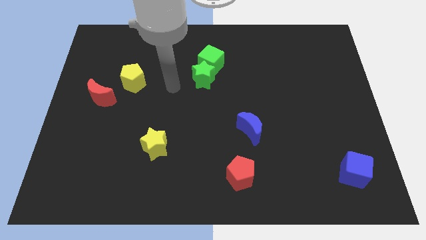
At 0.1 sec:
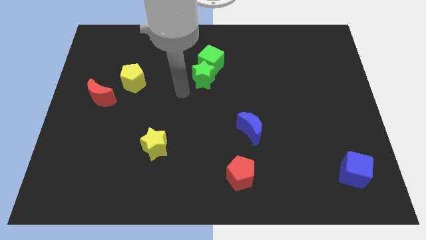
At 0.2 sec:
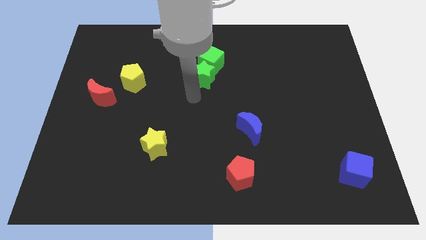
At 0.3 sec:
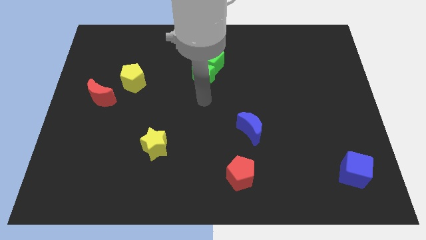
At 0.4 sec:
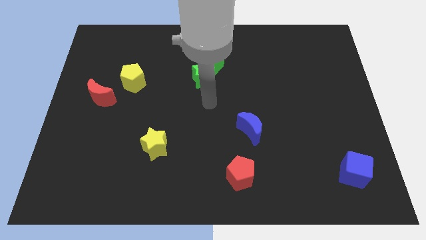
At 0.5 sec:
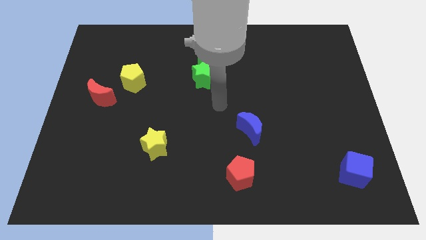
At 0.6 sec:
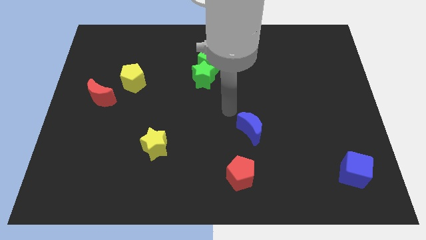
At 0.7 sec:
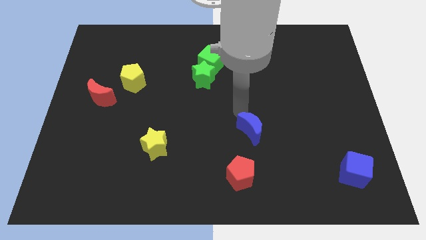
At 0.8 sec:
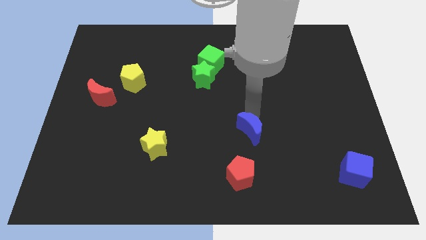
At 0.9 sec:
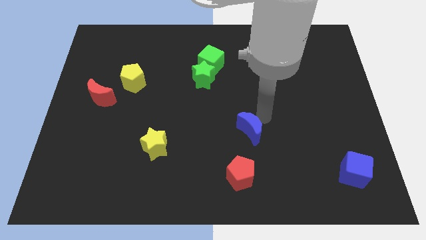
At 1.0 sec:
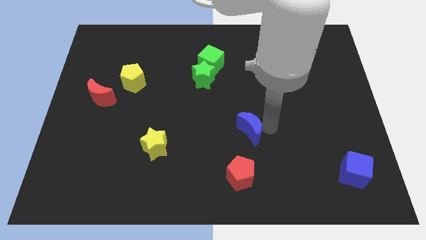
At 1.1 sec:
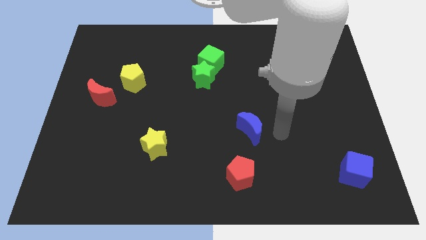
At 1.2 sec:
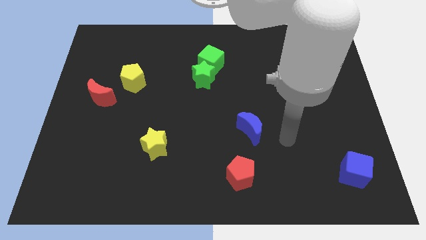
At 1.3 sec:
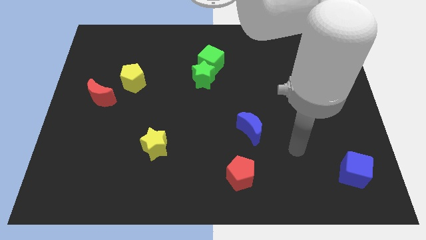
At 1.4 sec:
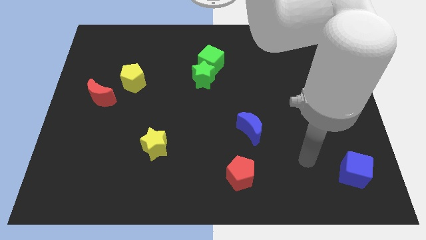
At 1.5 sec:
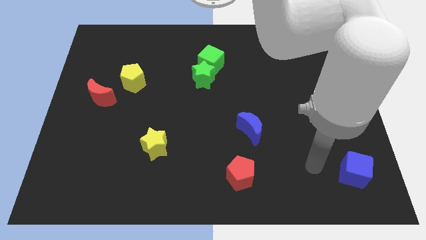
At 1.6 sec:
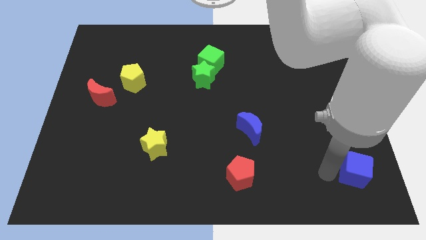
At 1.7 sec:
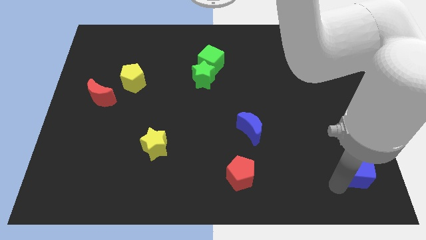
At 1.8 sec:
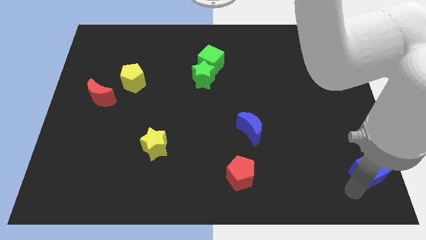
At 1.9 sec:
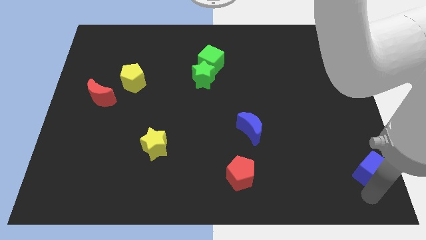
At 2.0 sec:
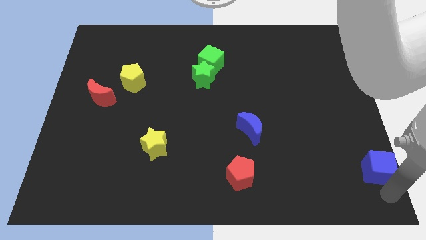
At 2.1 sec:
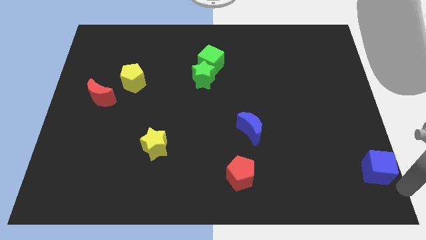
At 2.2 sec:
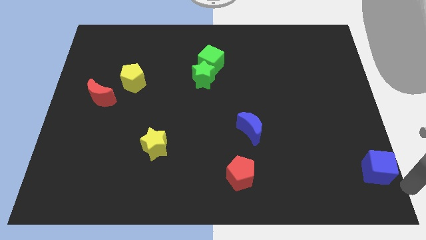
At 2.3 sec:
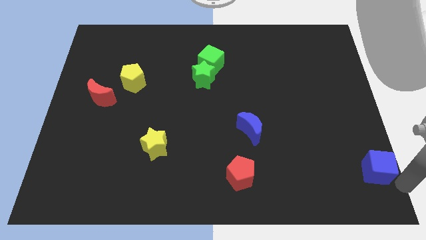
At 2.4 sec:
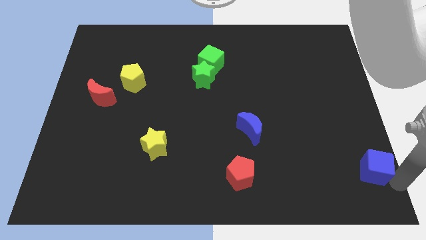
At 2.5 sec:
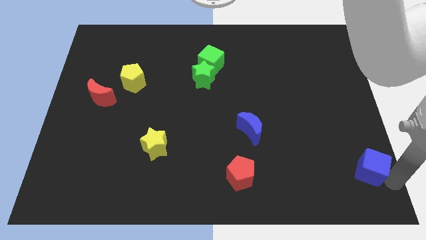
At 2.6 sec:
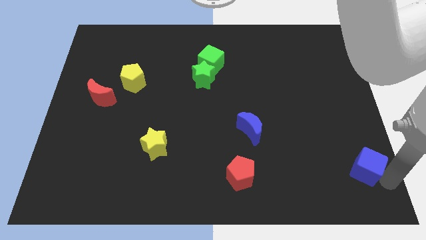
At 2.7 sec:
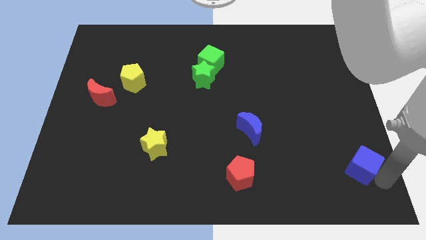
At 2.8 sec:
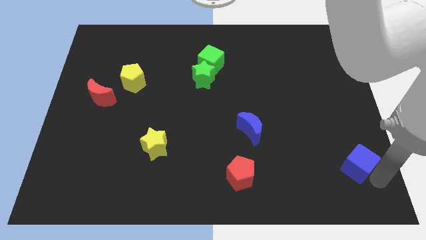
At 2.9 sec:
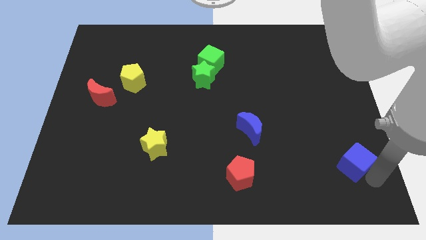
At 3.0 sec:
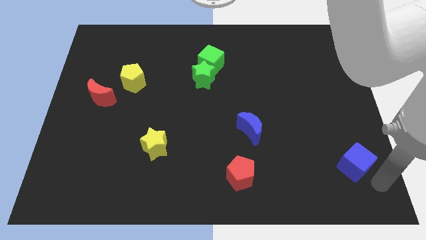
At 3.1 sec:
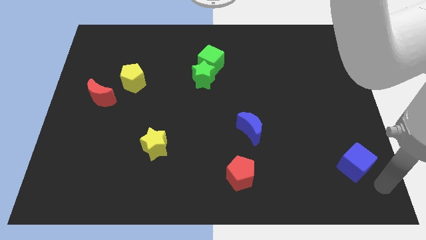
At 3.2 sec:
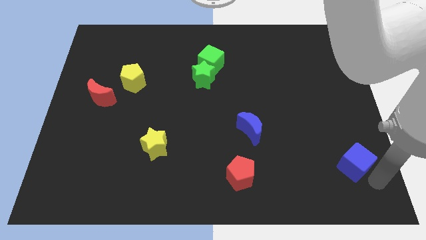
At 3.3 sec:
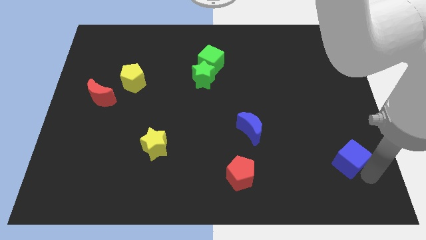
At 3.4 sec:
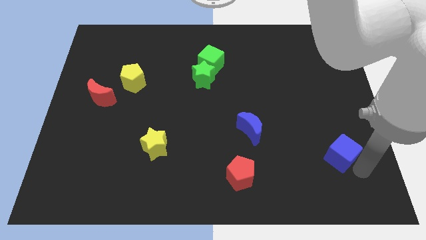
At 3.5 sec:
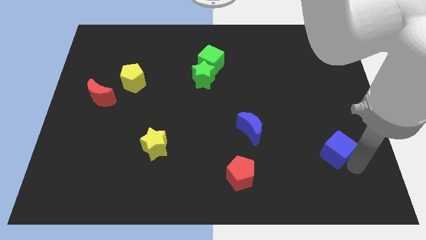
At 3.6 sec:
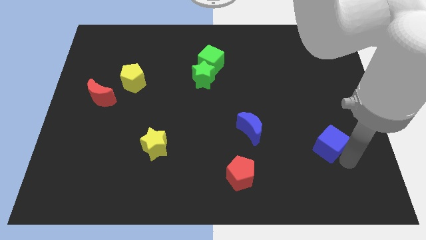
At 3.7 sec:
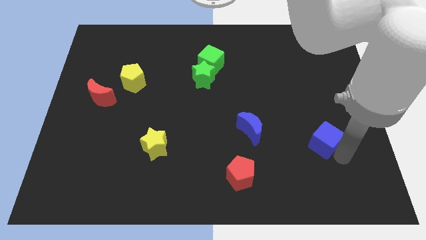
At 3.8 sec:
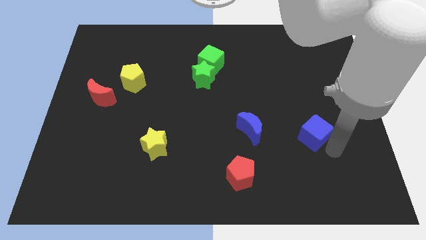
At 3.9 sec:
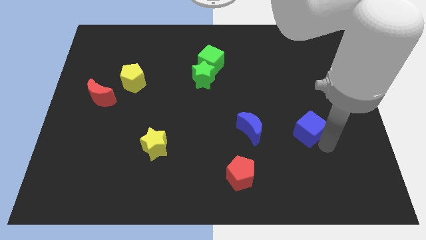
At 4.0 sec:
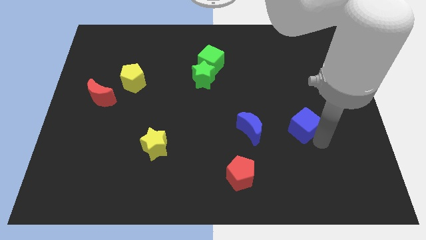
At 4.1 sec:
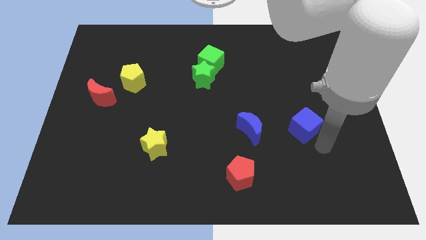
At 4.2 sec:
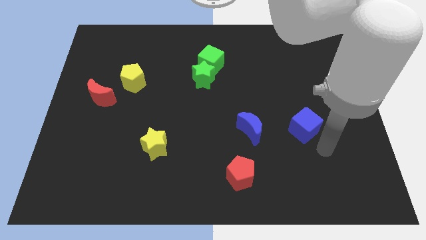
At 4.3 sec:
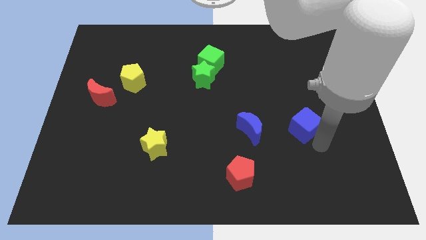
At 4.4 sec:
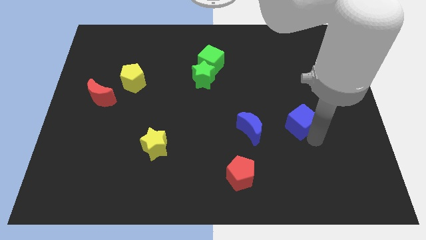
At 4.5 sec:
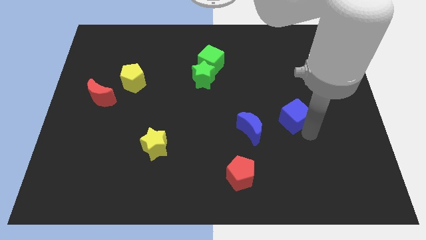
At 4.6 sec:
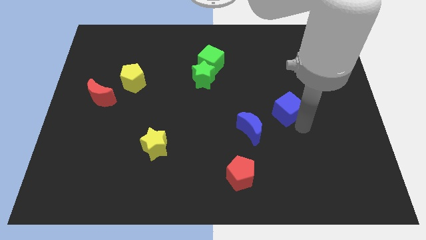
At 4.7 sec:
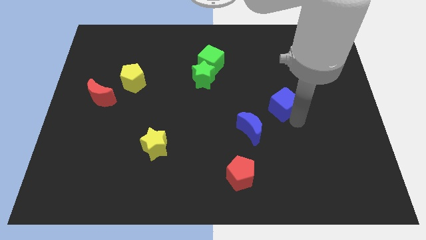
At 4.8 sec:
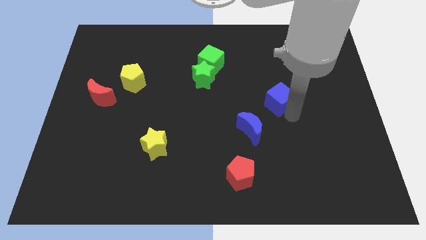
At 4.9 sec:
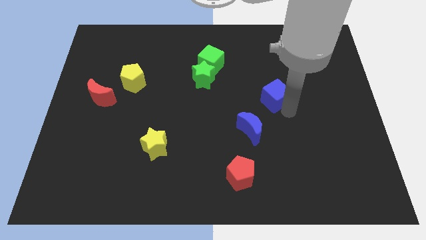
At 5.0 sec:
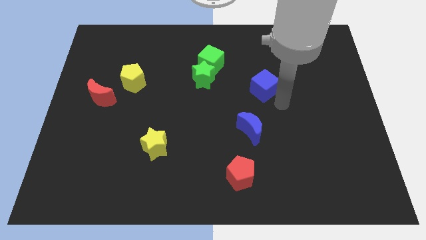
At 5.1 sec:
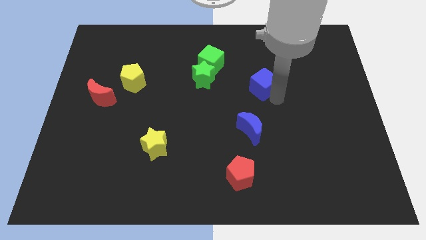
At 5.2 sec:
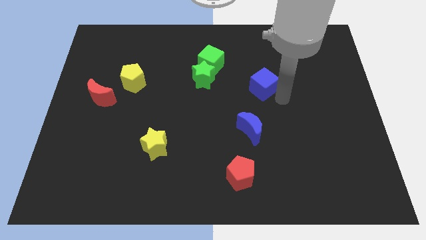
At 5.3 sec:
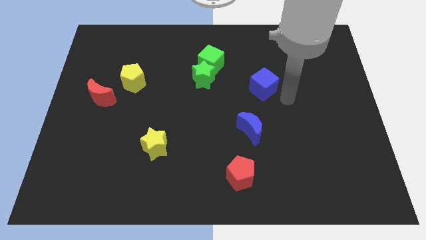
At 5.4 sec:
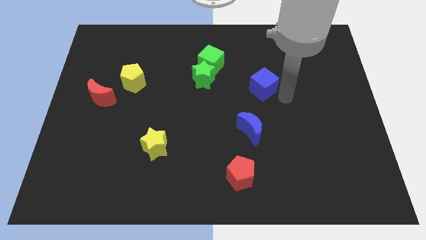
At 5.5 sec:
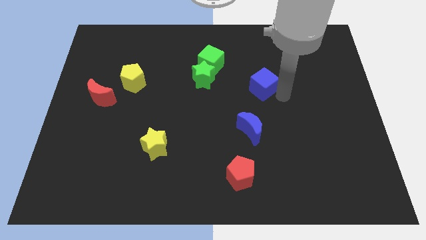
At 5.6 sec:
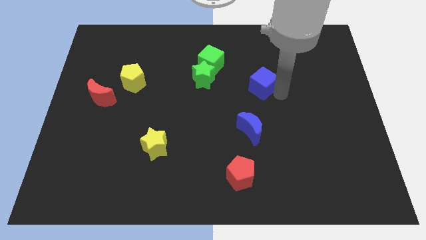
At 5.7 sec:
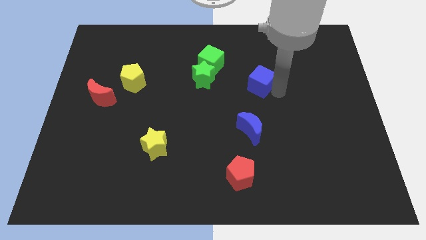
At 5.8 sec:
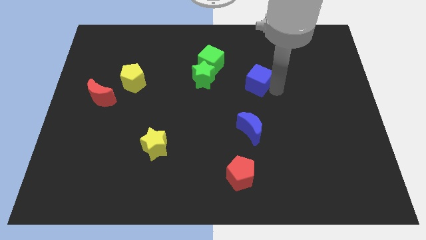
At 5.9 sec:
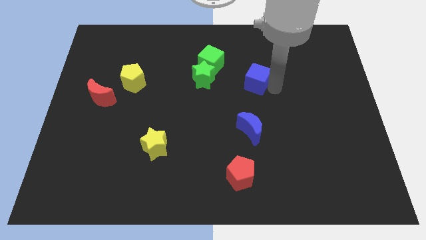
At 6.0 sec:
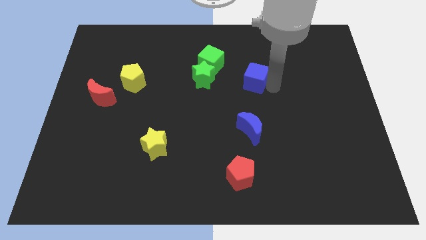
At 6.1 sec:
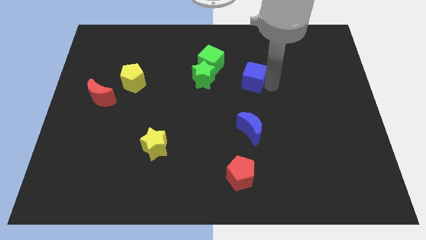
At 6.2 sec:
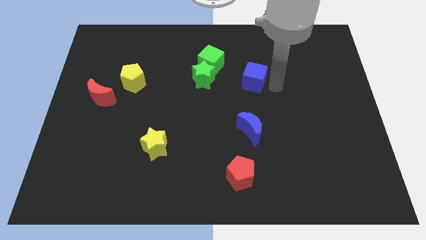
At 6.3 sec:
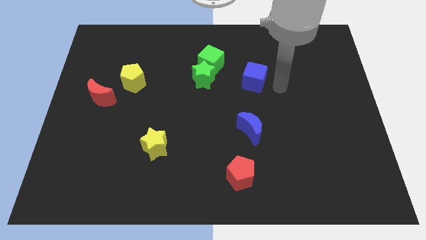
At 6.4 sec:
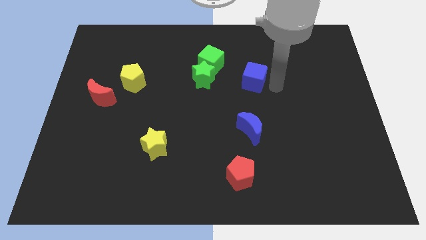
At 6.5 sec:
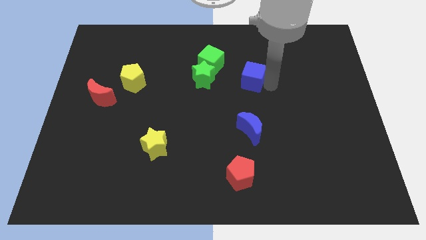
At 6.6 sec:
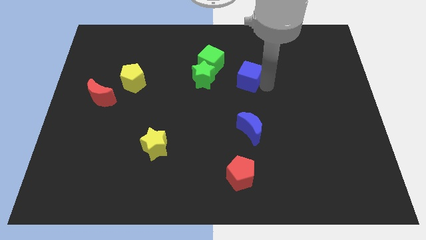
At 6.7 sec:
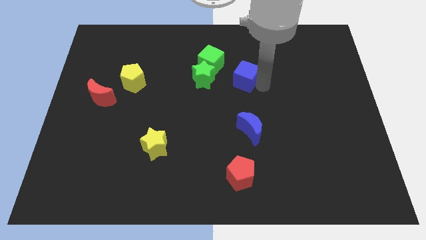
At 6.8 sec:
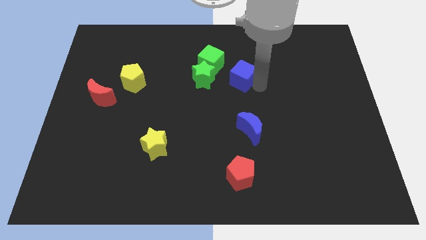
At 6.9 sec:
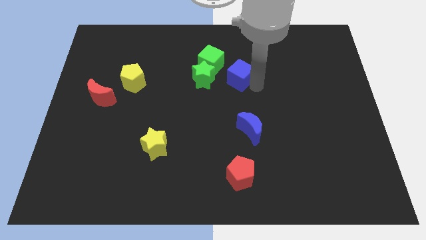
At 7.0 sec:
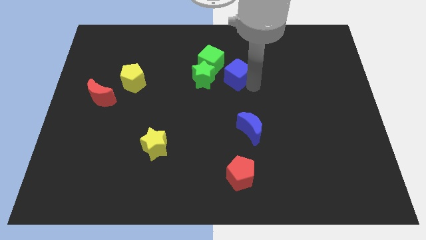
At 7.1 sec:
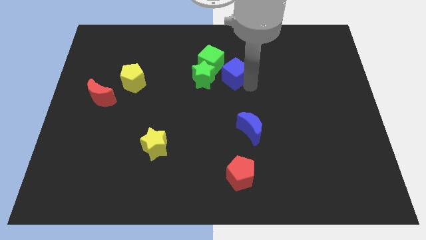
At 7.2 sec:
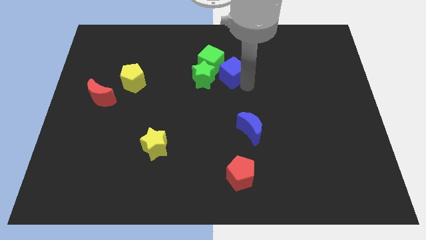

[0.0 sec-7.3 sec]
slide the blue cube to the top right side of the green star

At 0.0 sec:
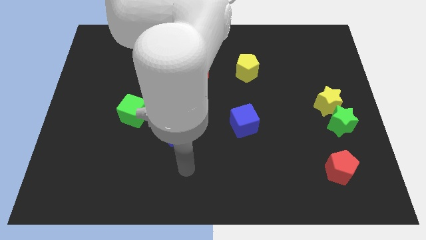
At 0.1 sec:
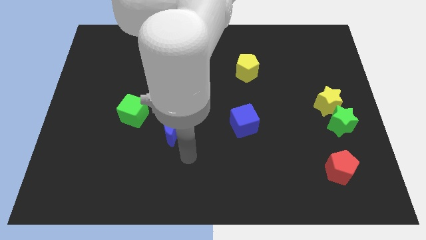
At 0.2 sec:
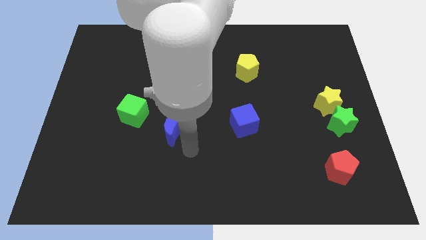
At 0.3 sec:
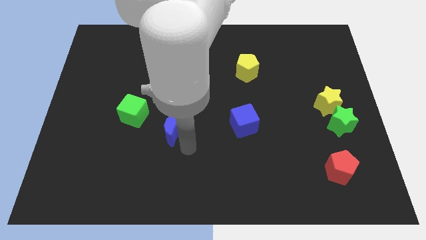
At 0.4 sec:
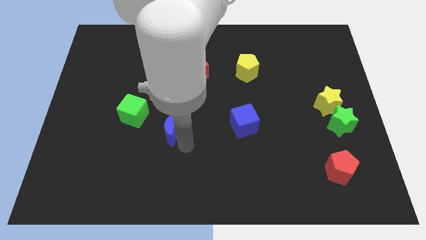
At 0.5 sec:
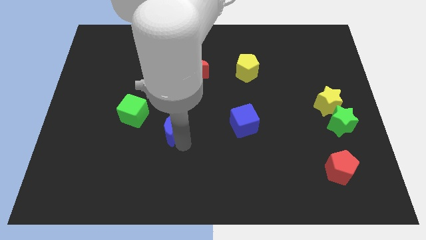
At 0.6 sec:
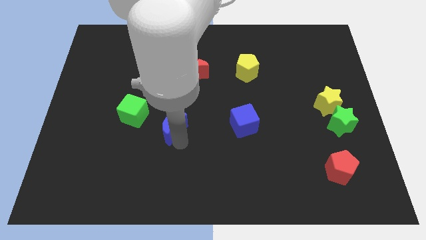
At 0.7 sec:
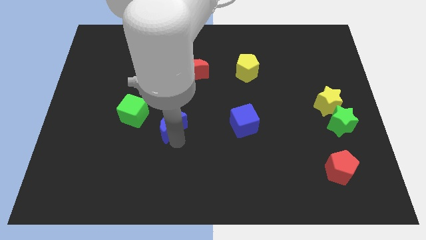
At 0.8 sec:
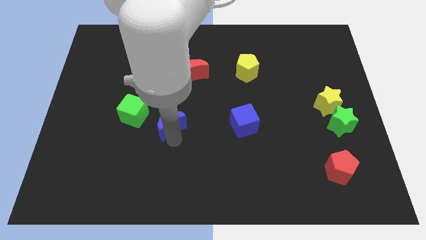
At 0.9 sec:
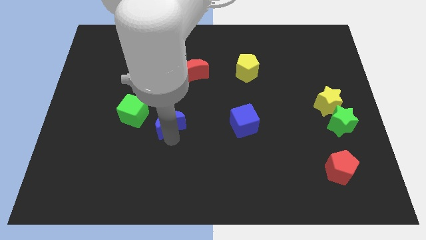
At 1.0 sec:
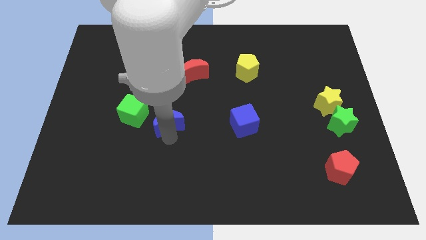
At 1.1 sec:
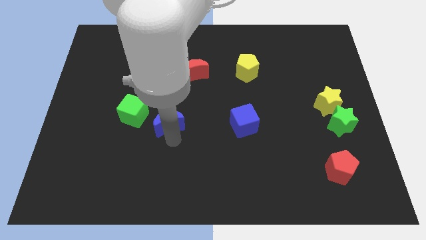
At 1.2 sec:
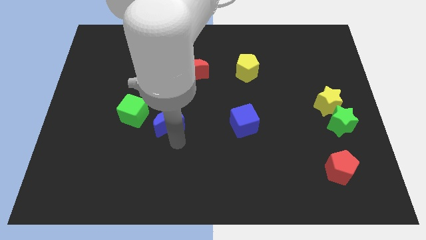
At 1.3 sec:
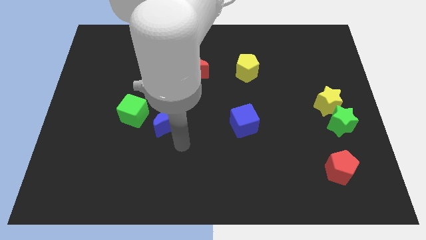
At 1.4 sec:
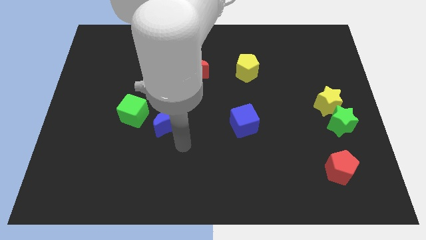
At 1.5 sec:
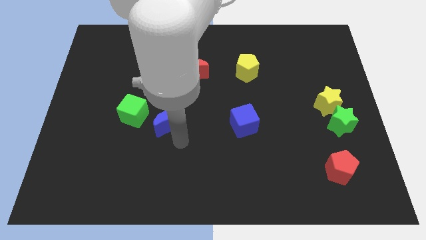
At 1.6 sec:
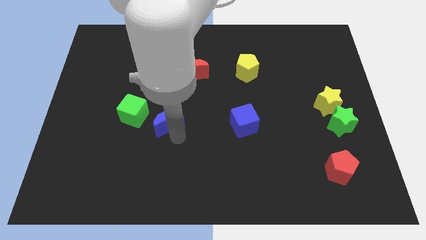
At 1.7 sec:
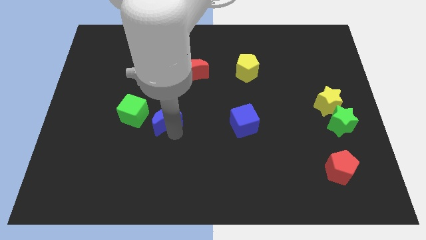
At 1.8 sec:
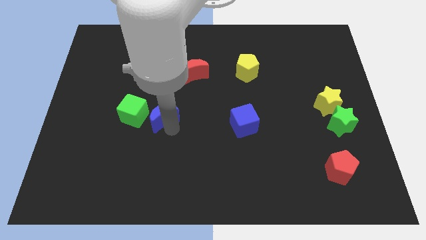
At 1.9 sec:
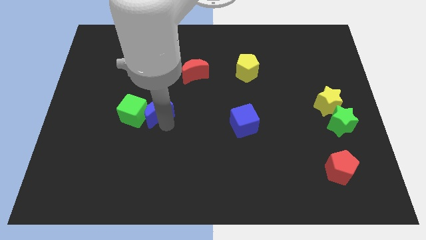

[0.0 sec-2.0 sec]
slide the blue moon diagonally up and to the right of the green cube
